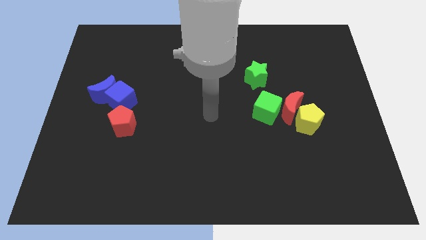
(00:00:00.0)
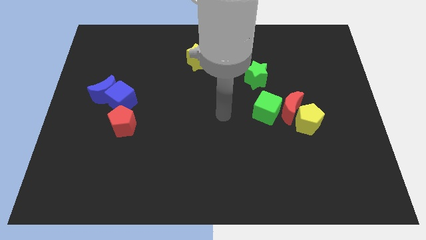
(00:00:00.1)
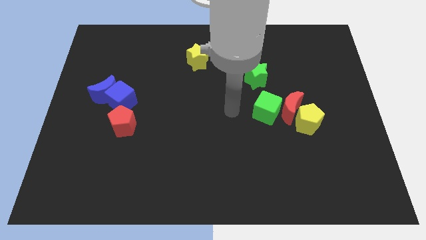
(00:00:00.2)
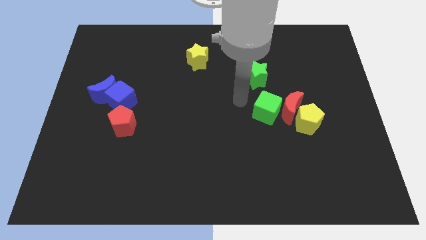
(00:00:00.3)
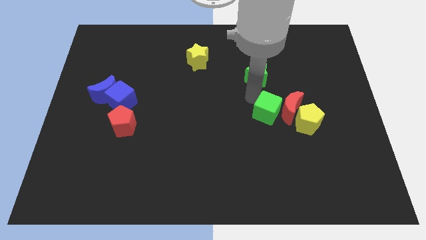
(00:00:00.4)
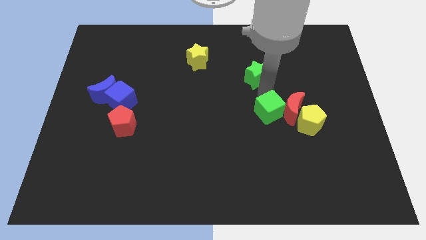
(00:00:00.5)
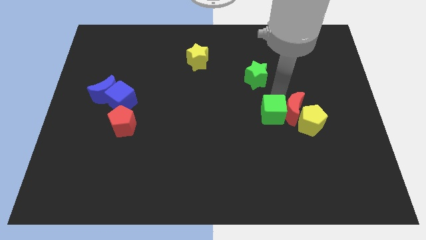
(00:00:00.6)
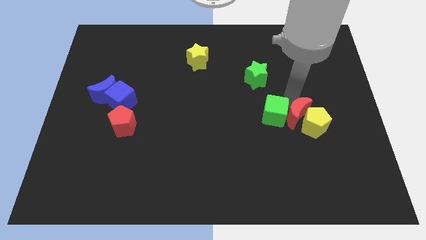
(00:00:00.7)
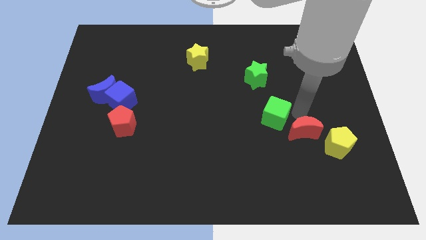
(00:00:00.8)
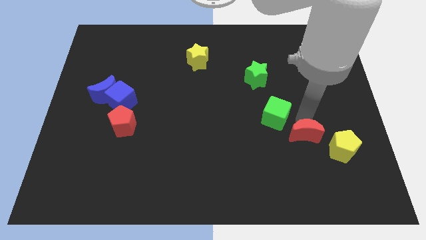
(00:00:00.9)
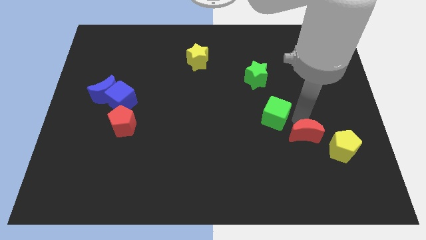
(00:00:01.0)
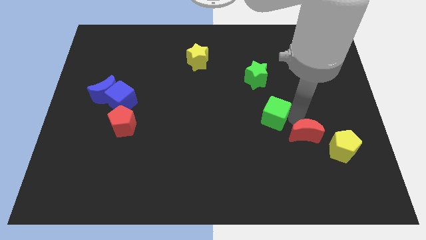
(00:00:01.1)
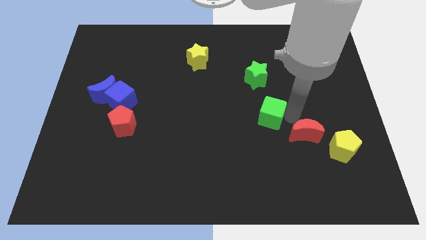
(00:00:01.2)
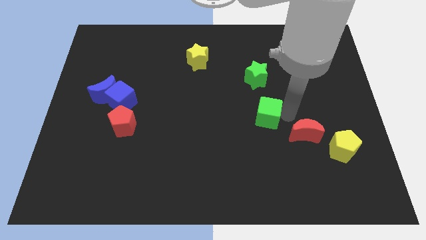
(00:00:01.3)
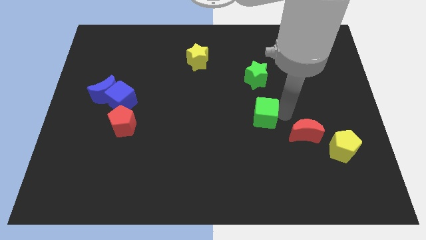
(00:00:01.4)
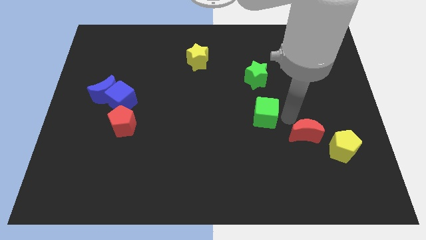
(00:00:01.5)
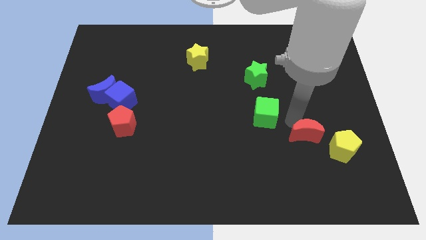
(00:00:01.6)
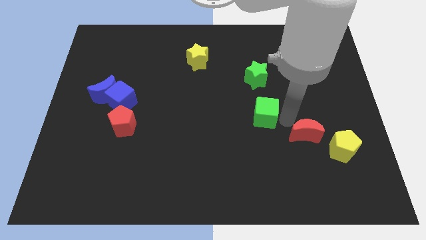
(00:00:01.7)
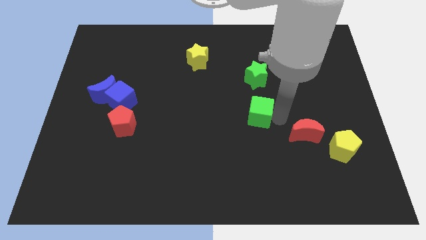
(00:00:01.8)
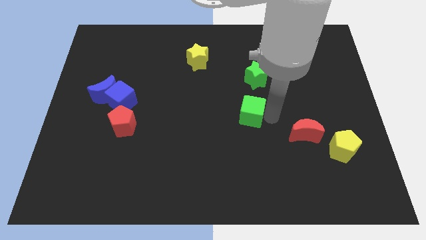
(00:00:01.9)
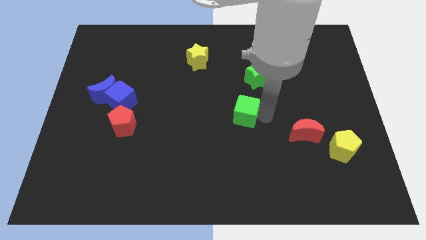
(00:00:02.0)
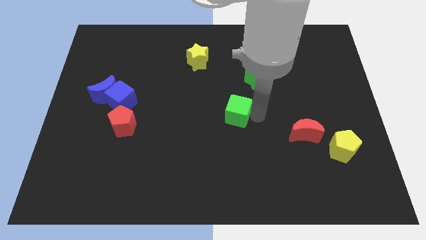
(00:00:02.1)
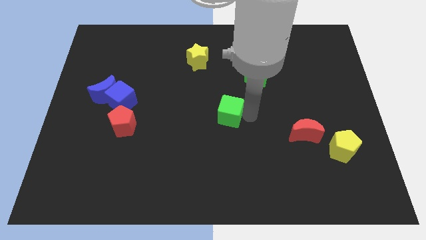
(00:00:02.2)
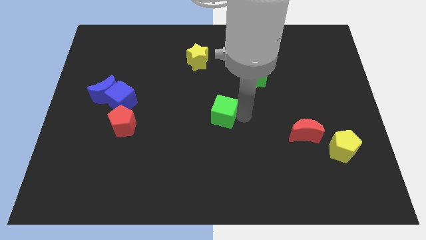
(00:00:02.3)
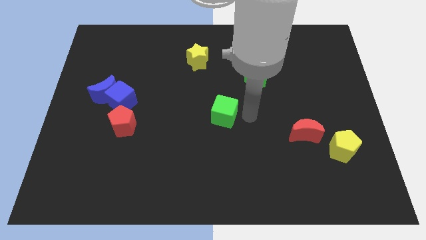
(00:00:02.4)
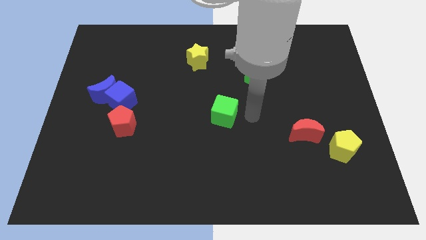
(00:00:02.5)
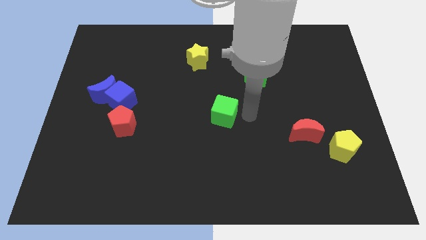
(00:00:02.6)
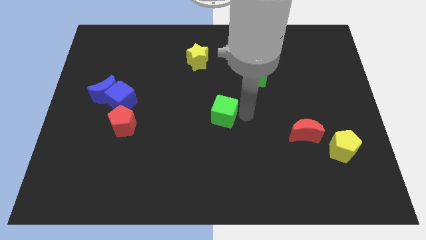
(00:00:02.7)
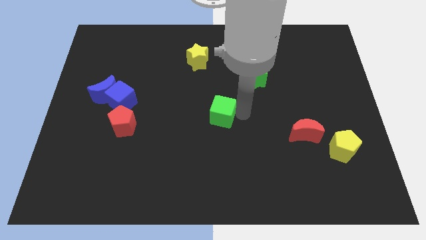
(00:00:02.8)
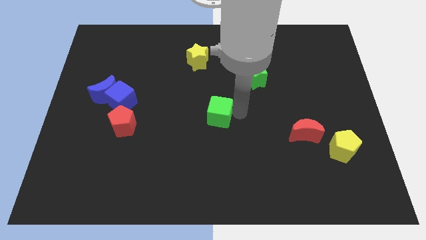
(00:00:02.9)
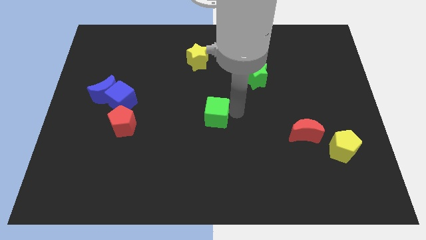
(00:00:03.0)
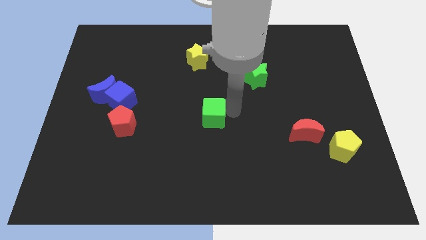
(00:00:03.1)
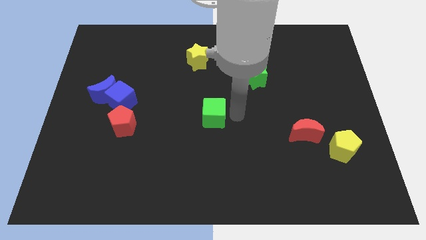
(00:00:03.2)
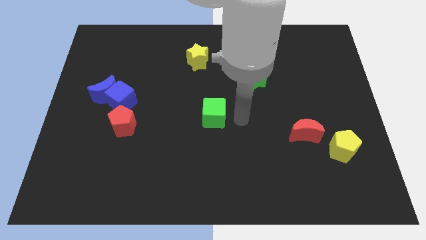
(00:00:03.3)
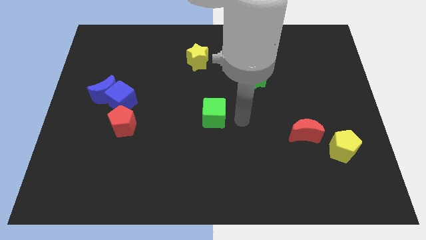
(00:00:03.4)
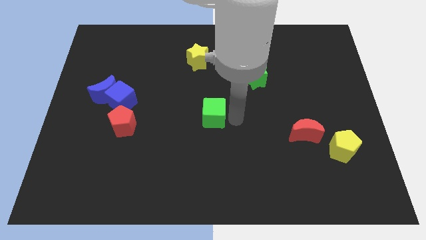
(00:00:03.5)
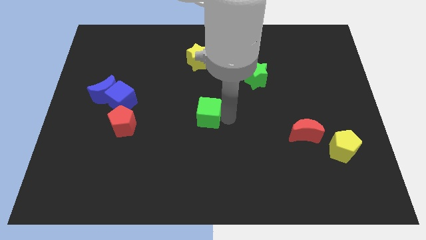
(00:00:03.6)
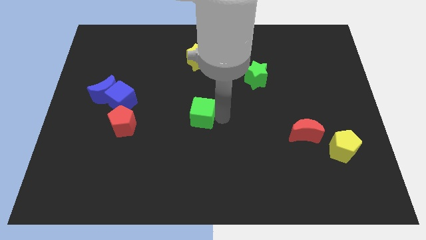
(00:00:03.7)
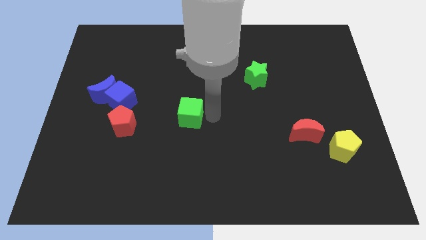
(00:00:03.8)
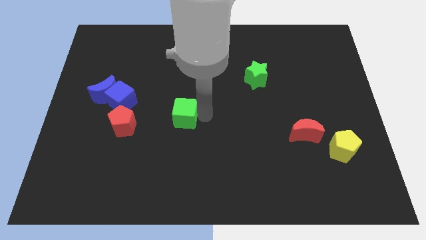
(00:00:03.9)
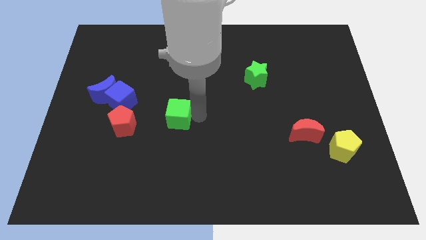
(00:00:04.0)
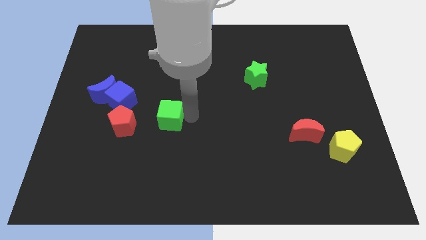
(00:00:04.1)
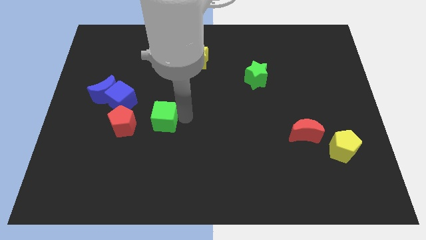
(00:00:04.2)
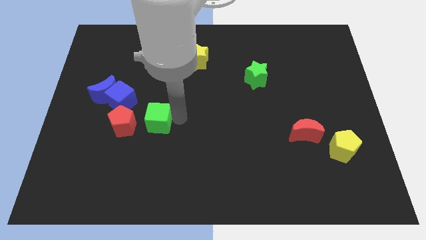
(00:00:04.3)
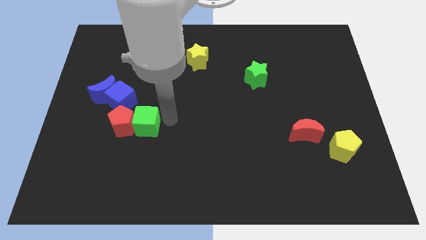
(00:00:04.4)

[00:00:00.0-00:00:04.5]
put the green cube to the red pentagon

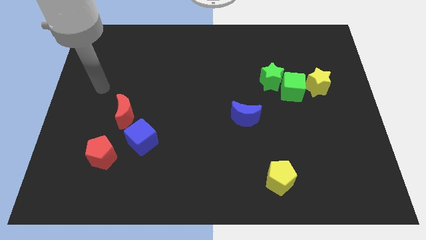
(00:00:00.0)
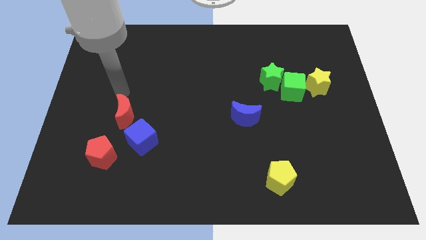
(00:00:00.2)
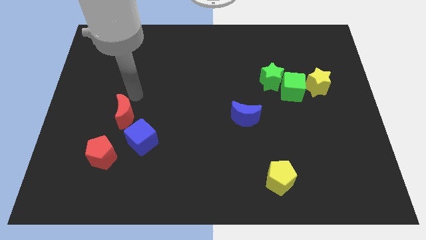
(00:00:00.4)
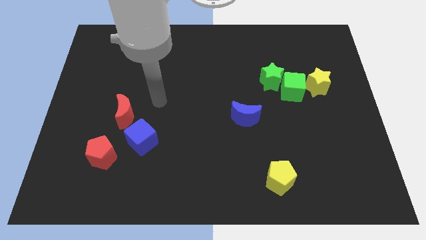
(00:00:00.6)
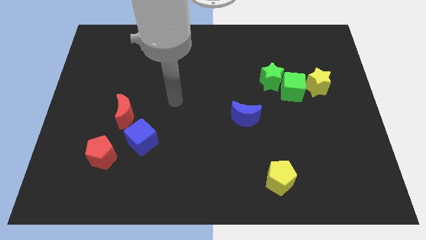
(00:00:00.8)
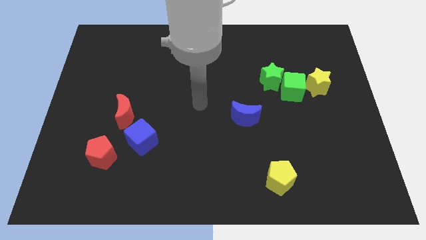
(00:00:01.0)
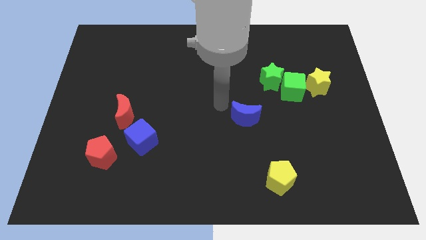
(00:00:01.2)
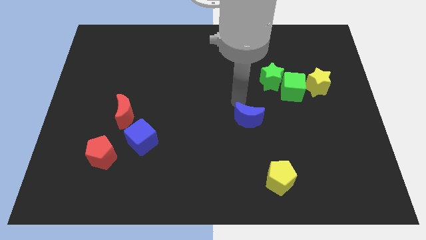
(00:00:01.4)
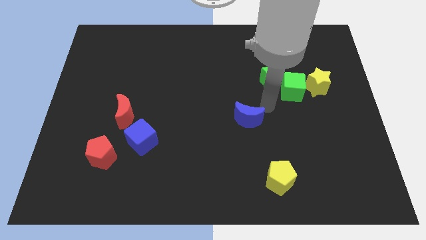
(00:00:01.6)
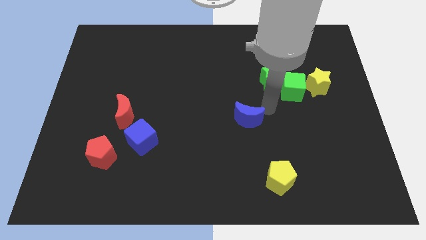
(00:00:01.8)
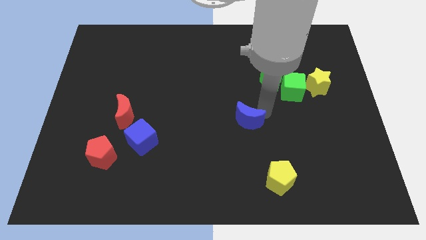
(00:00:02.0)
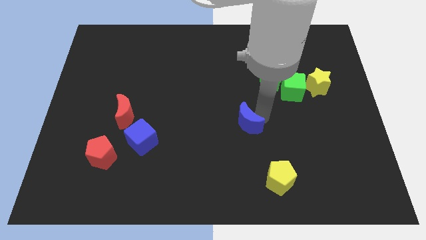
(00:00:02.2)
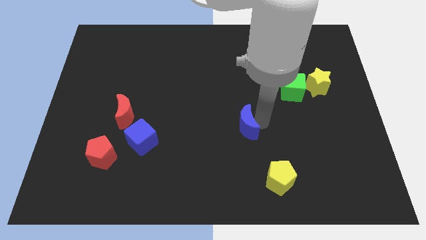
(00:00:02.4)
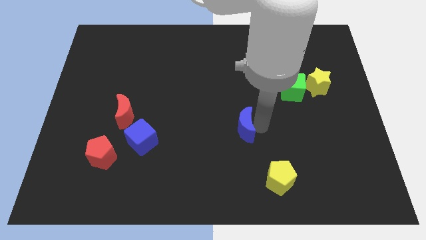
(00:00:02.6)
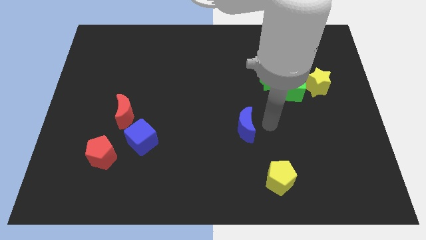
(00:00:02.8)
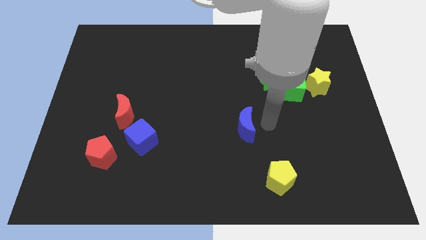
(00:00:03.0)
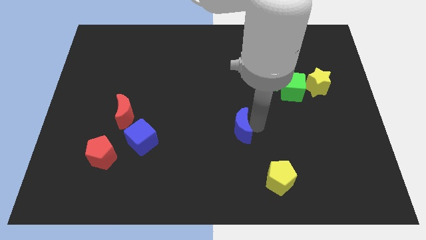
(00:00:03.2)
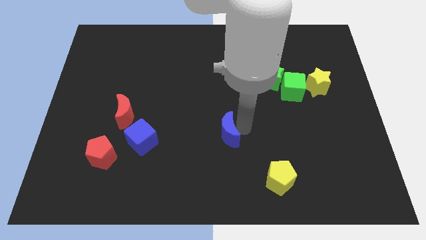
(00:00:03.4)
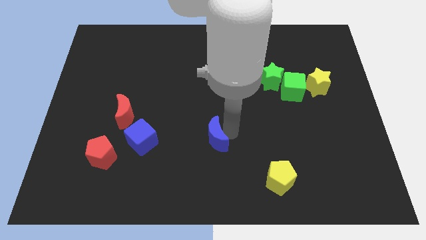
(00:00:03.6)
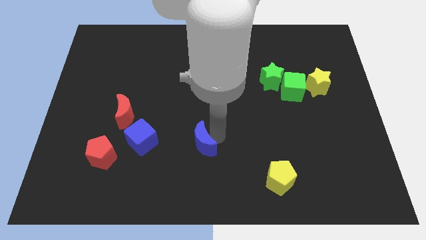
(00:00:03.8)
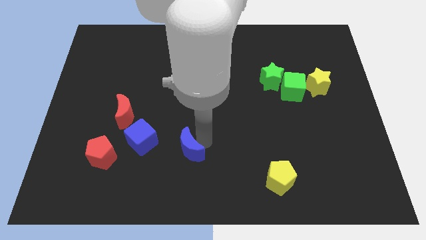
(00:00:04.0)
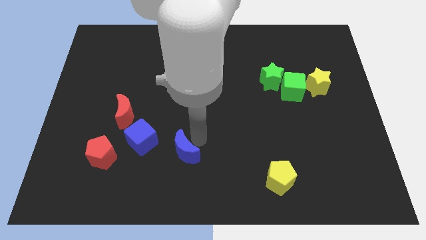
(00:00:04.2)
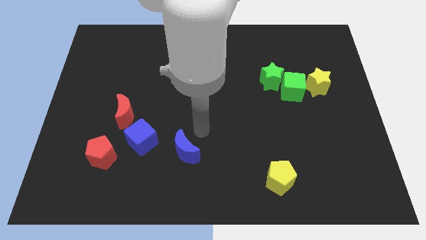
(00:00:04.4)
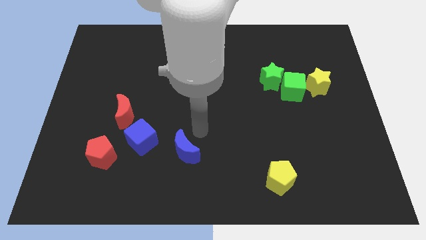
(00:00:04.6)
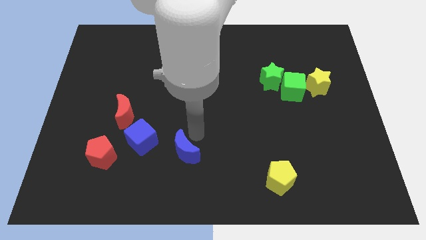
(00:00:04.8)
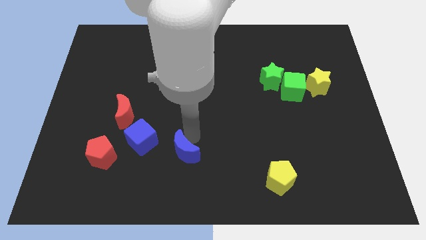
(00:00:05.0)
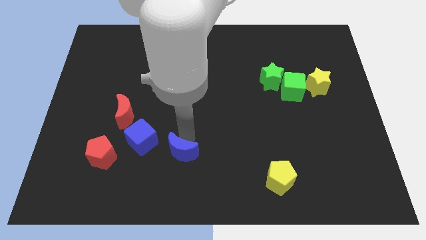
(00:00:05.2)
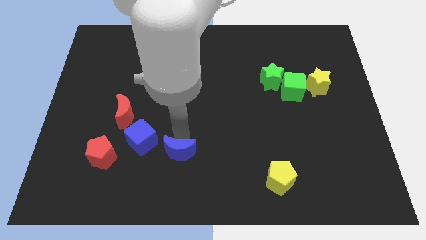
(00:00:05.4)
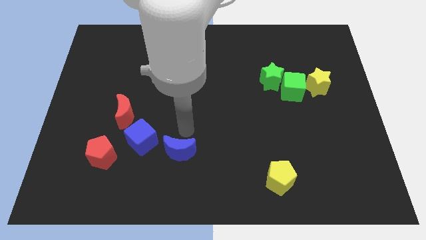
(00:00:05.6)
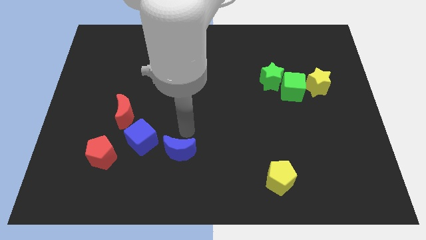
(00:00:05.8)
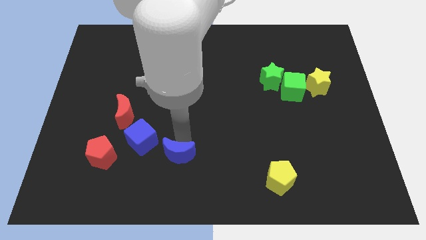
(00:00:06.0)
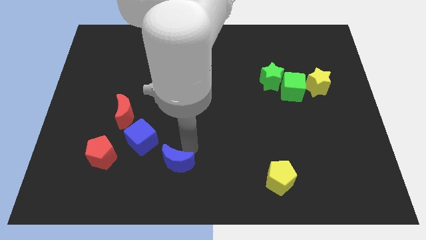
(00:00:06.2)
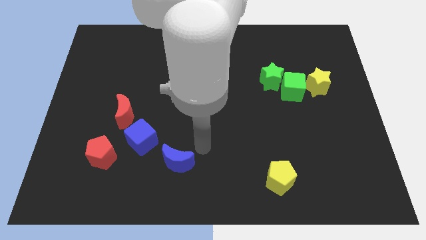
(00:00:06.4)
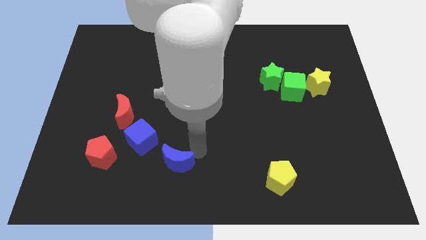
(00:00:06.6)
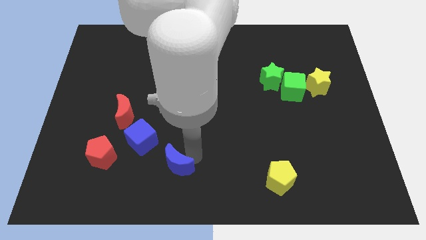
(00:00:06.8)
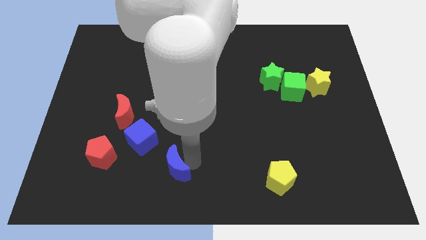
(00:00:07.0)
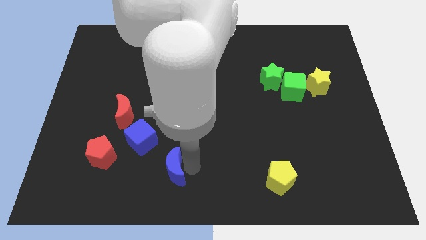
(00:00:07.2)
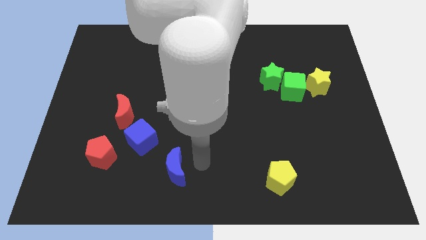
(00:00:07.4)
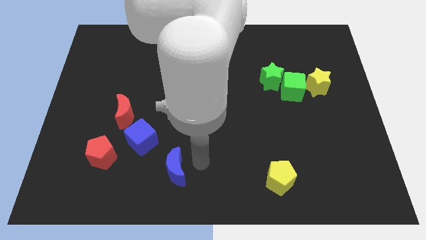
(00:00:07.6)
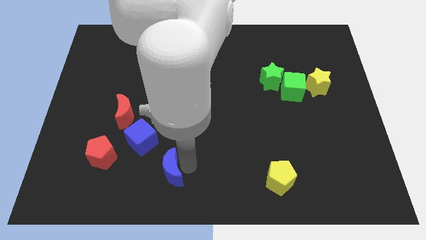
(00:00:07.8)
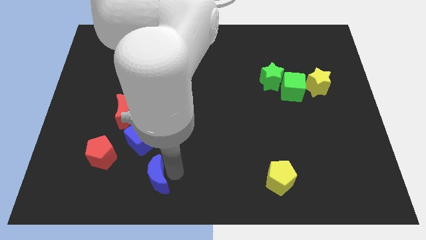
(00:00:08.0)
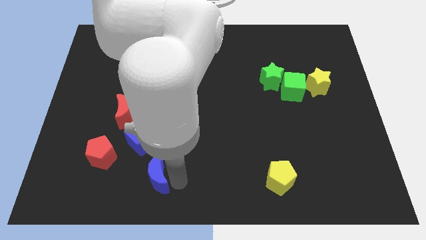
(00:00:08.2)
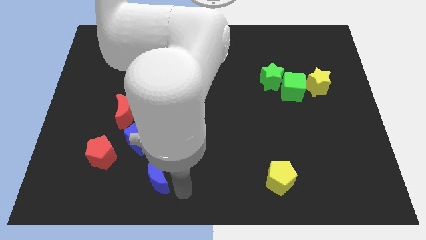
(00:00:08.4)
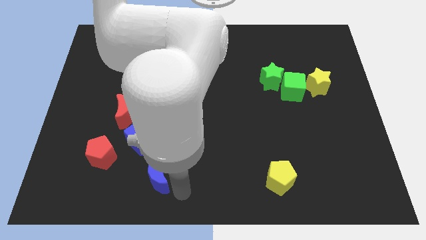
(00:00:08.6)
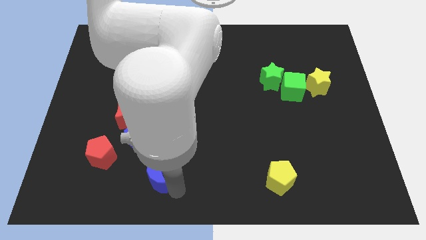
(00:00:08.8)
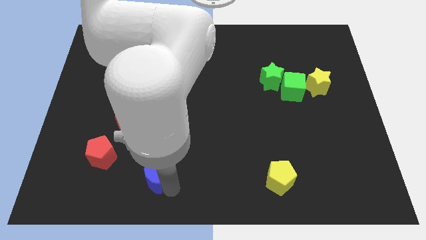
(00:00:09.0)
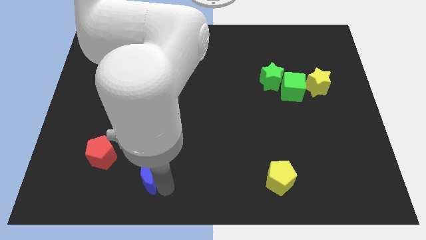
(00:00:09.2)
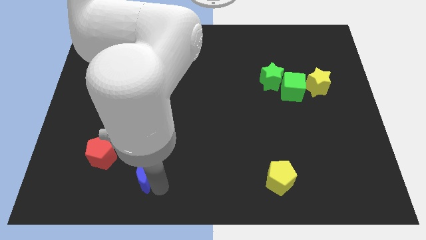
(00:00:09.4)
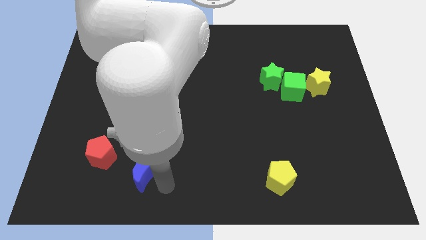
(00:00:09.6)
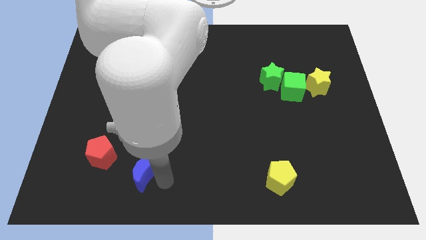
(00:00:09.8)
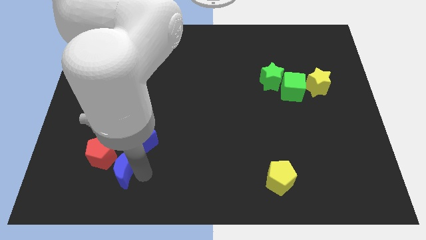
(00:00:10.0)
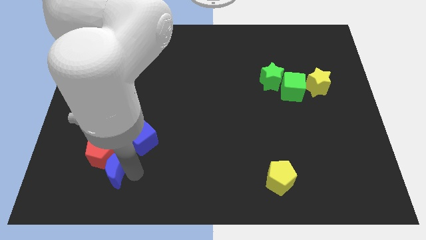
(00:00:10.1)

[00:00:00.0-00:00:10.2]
move the blue moon next to the red pentagon
